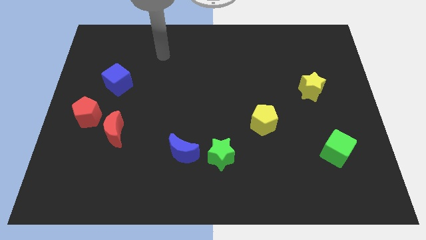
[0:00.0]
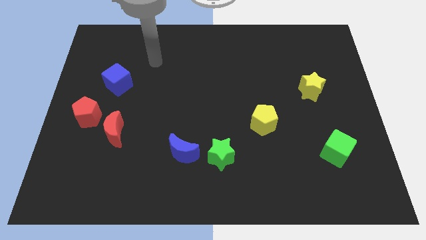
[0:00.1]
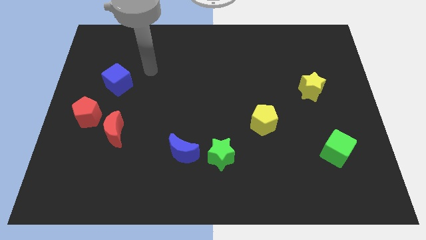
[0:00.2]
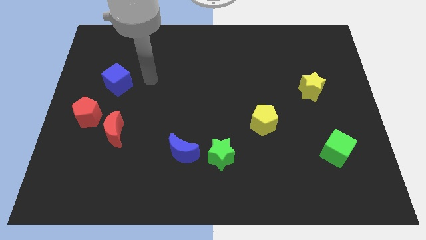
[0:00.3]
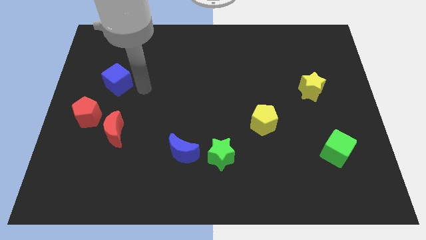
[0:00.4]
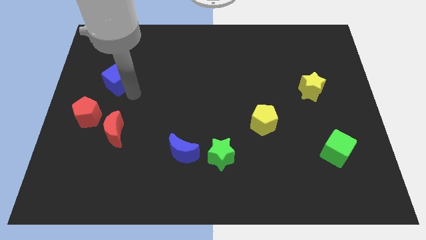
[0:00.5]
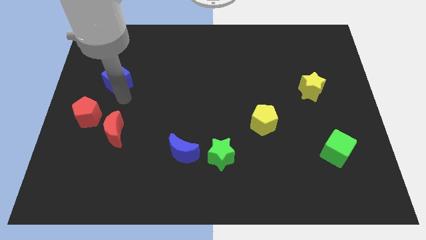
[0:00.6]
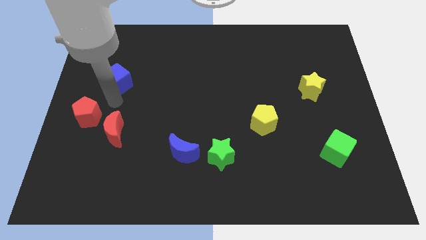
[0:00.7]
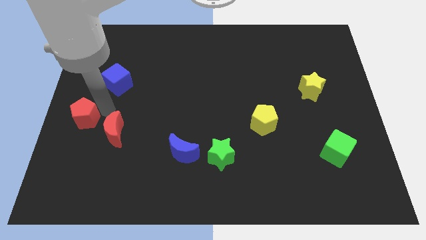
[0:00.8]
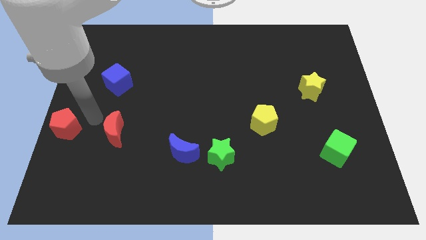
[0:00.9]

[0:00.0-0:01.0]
separate the red moon from the red pentagon

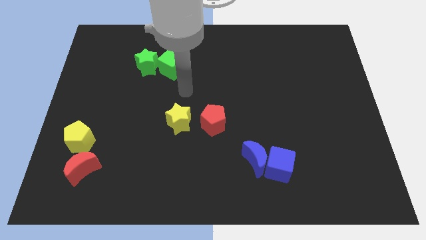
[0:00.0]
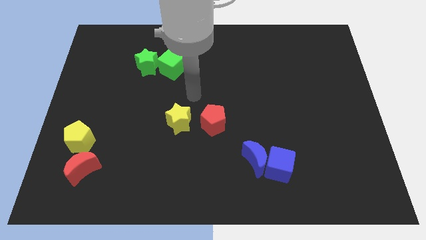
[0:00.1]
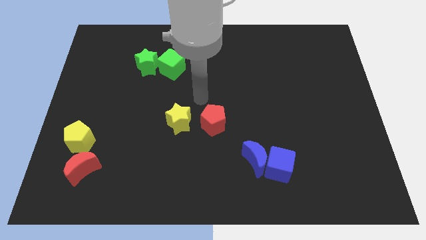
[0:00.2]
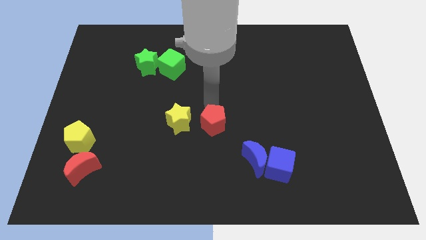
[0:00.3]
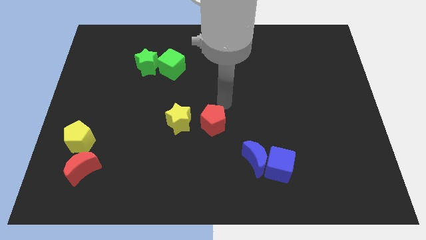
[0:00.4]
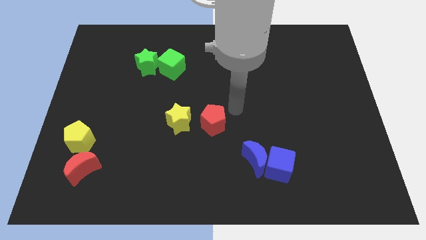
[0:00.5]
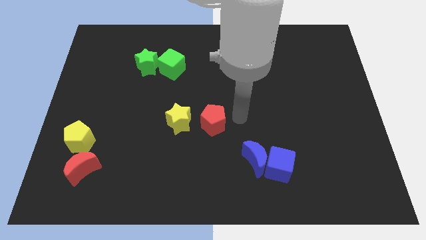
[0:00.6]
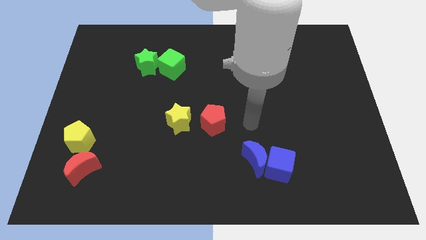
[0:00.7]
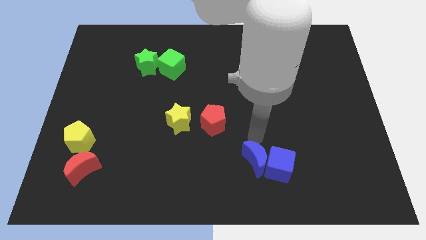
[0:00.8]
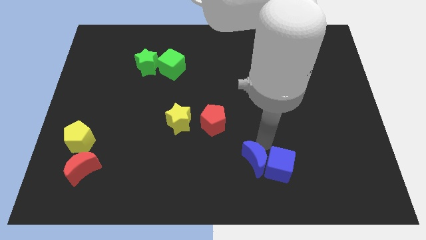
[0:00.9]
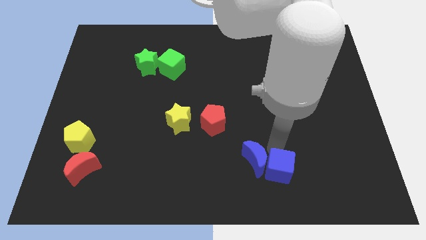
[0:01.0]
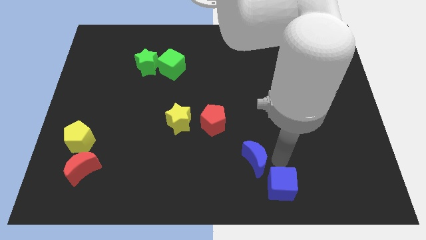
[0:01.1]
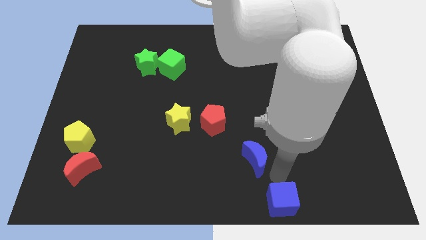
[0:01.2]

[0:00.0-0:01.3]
separate the blue moon from the blue cube

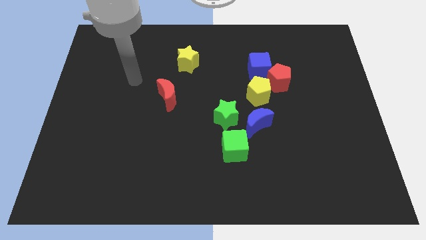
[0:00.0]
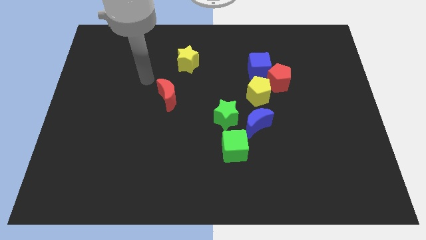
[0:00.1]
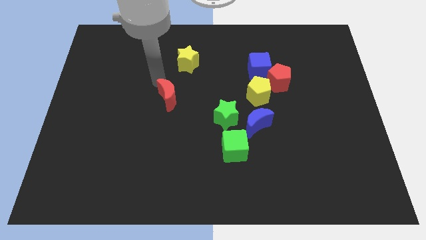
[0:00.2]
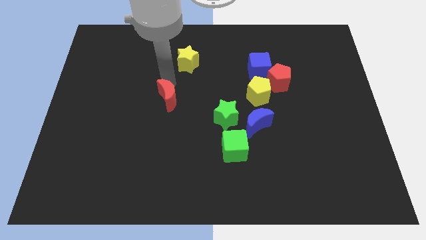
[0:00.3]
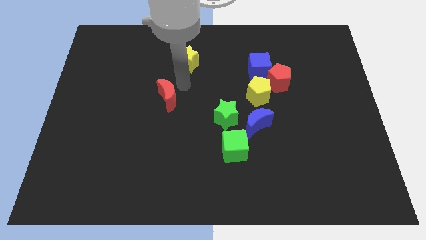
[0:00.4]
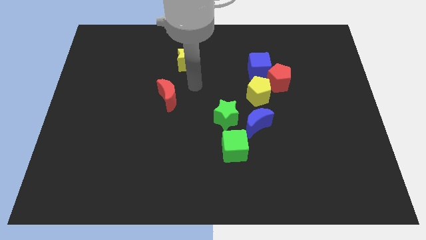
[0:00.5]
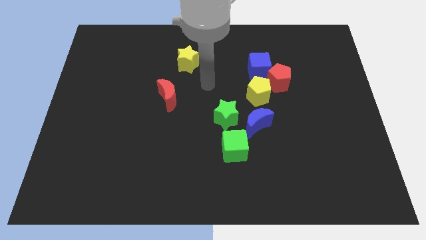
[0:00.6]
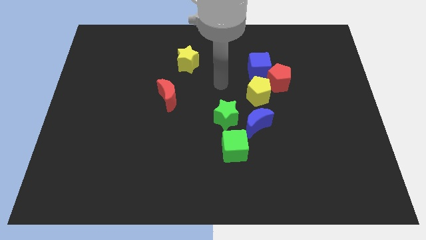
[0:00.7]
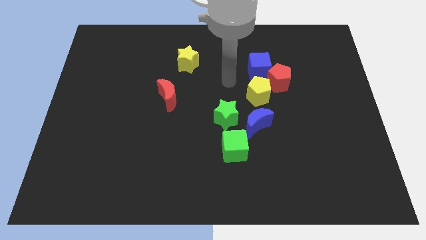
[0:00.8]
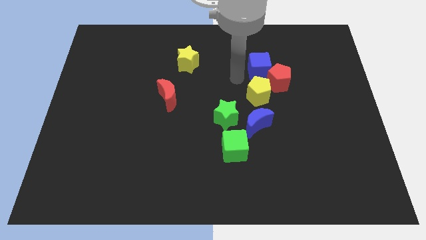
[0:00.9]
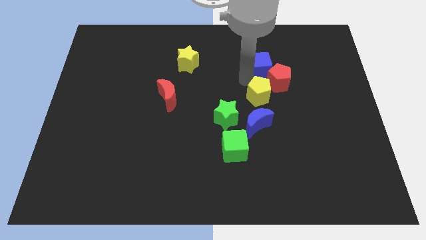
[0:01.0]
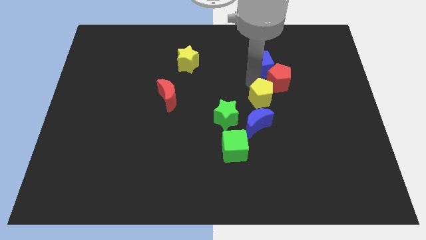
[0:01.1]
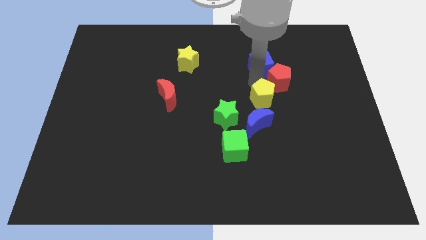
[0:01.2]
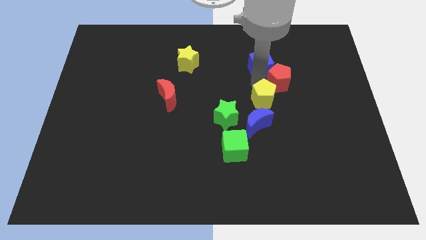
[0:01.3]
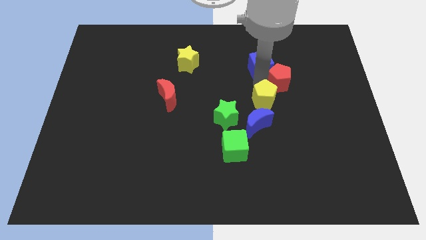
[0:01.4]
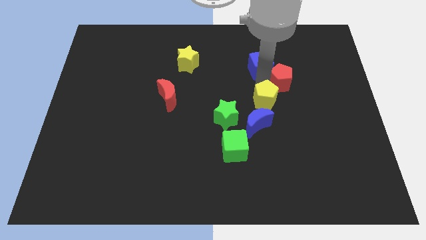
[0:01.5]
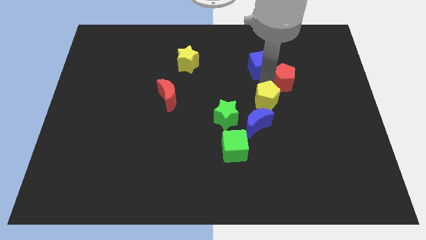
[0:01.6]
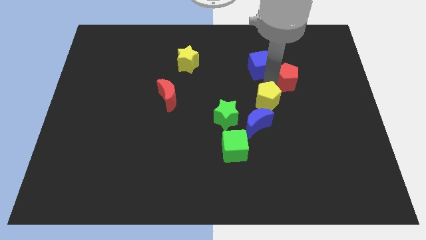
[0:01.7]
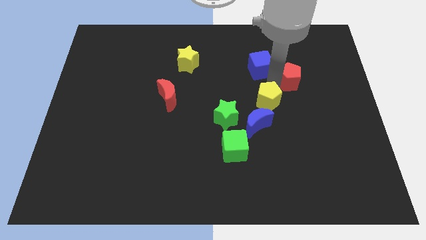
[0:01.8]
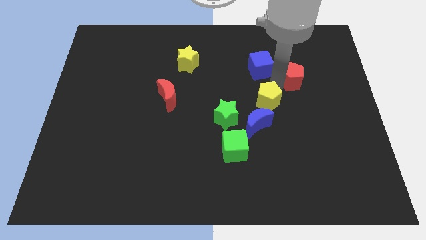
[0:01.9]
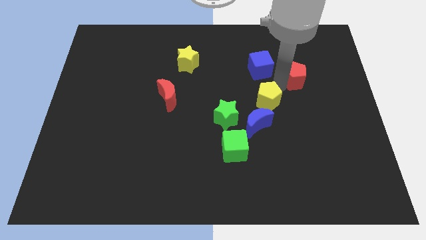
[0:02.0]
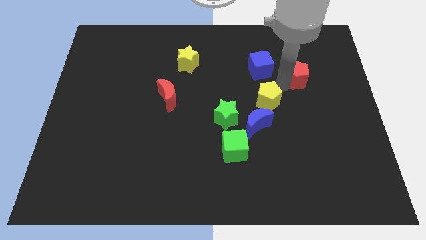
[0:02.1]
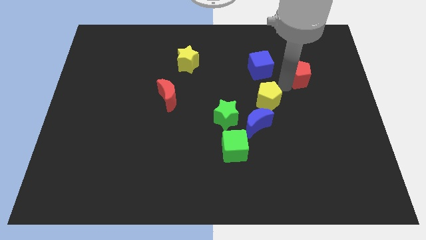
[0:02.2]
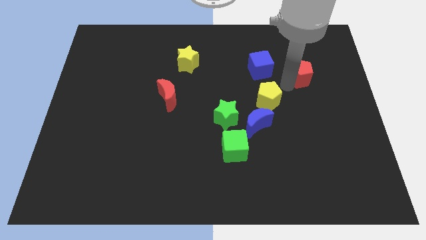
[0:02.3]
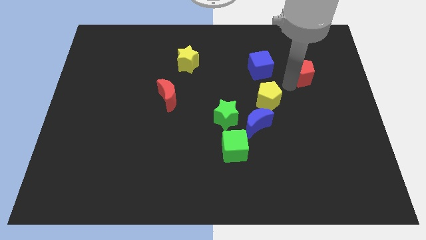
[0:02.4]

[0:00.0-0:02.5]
separate the red pentagon from the blue cube and yellow pentagon

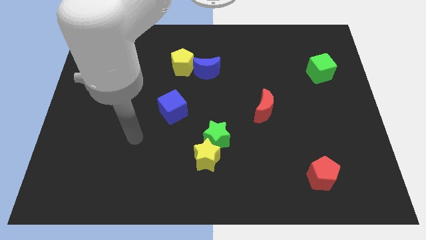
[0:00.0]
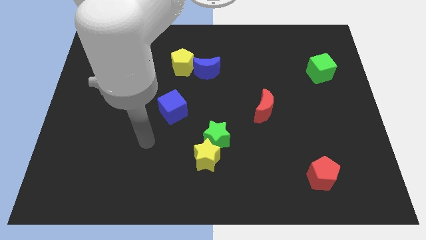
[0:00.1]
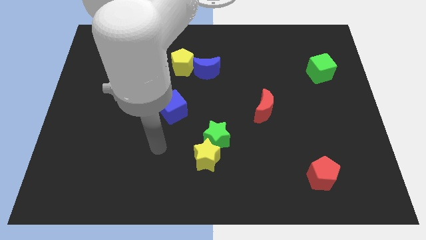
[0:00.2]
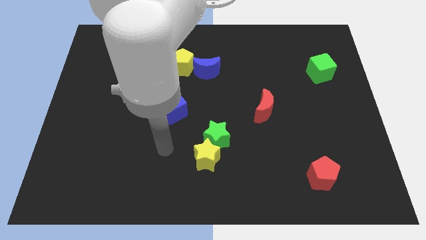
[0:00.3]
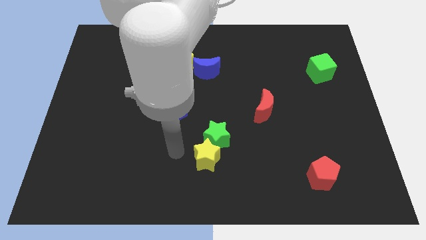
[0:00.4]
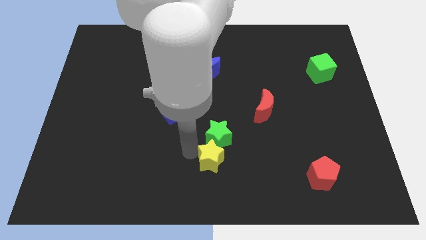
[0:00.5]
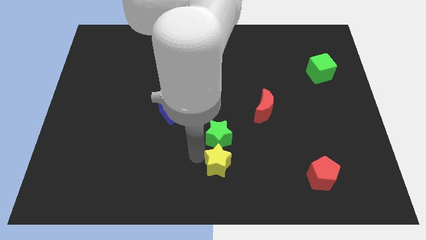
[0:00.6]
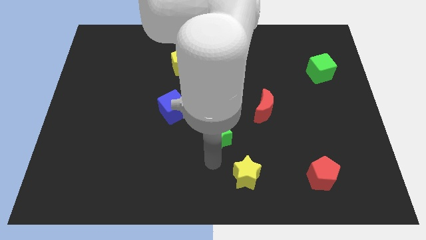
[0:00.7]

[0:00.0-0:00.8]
pull the green star apart from the yellow star

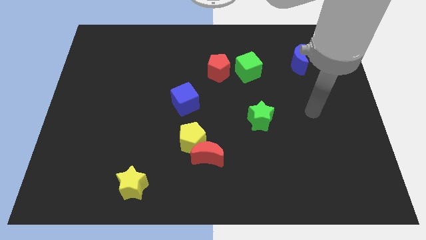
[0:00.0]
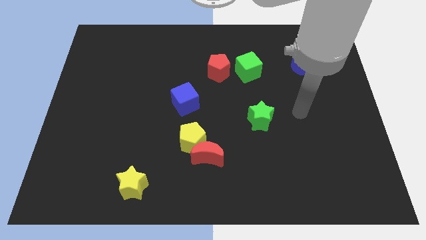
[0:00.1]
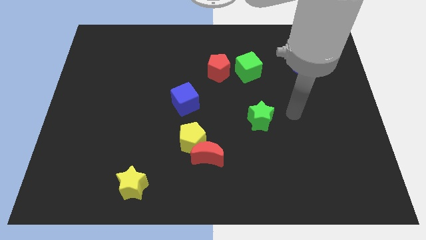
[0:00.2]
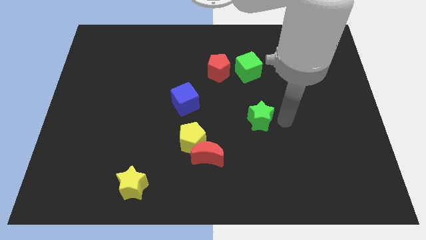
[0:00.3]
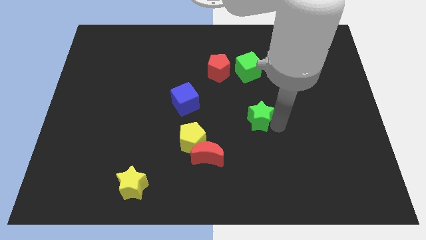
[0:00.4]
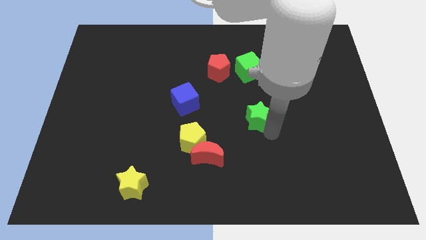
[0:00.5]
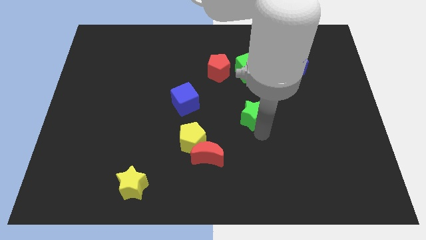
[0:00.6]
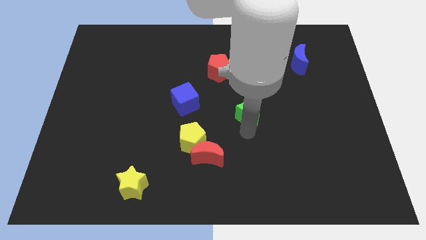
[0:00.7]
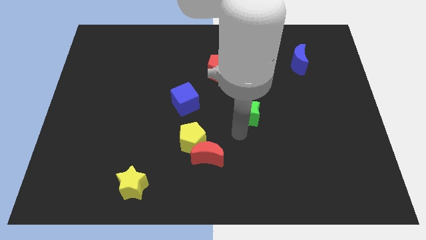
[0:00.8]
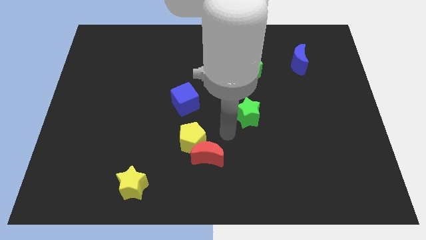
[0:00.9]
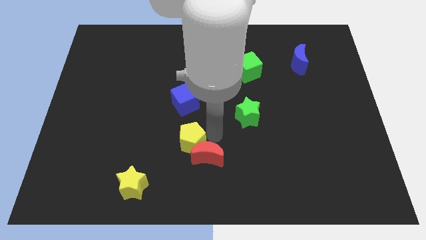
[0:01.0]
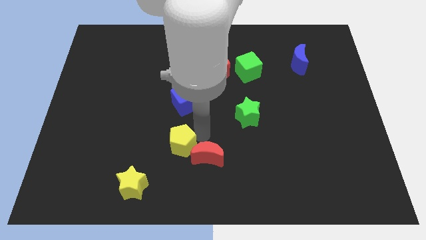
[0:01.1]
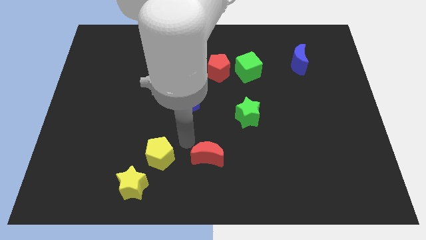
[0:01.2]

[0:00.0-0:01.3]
pull the red moon apart from the yellow pentagon

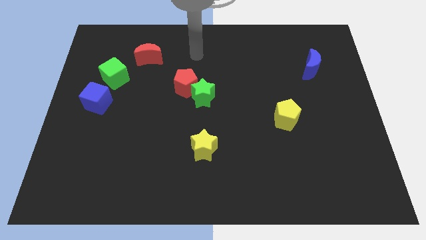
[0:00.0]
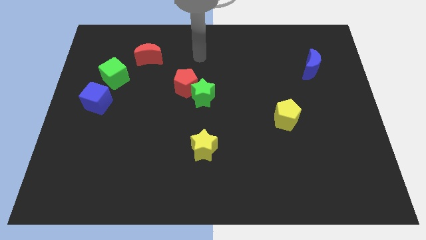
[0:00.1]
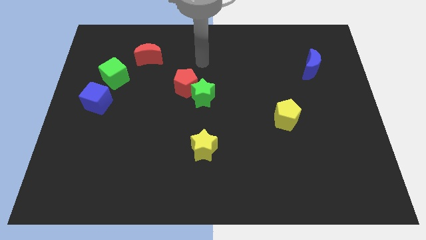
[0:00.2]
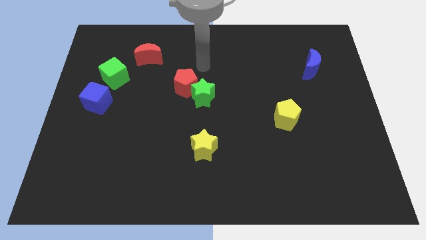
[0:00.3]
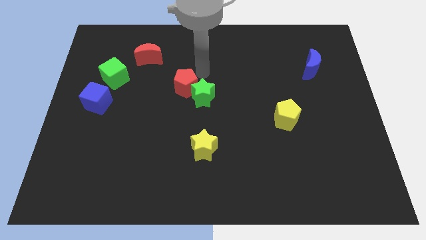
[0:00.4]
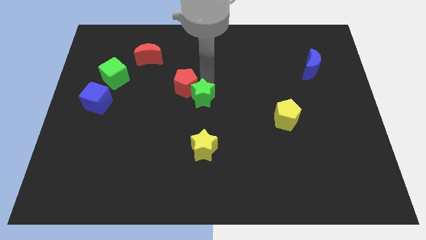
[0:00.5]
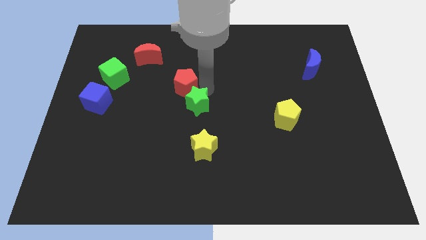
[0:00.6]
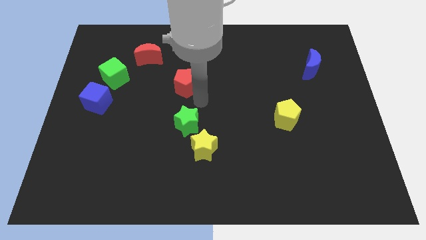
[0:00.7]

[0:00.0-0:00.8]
separate the red pentagon from the green star

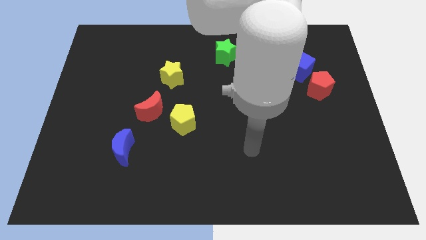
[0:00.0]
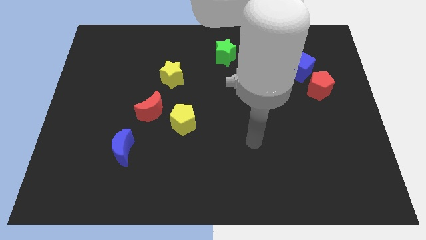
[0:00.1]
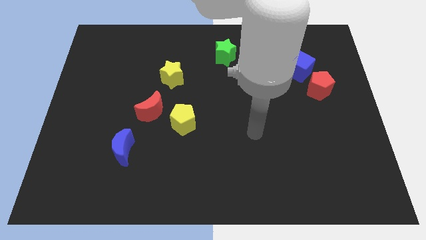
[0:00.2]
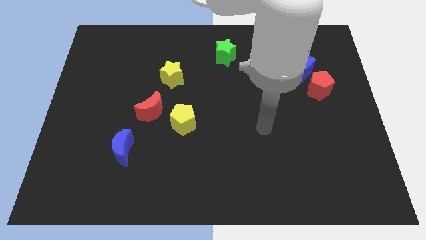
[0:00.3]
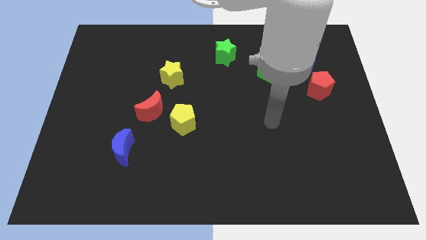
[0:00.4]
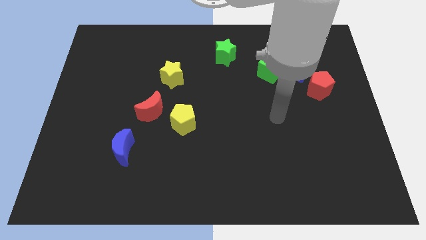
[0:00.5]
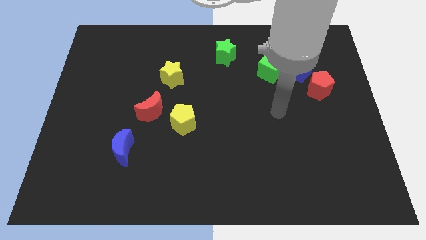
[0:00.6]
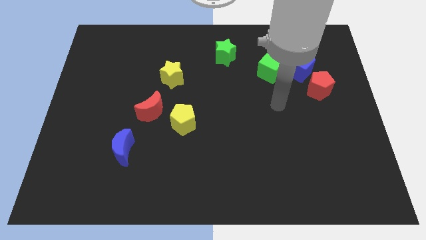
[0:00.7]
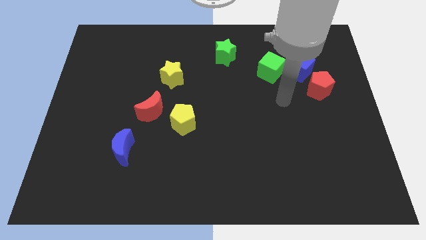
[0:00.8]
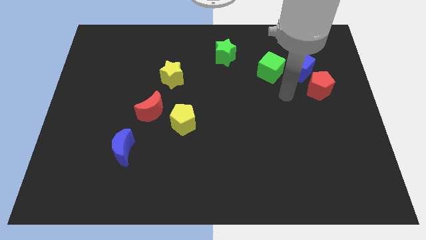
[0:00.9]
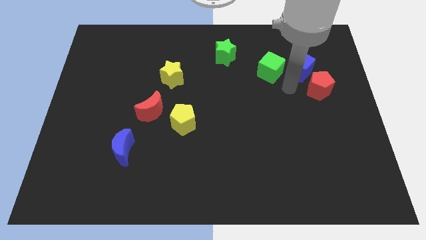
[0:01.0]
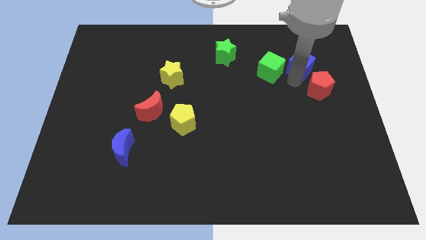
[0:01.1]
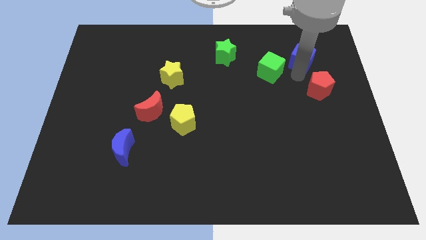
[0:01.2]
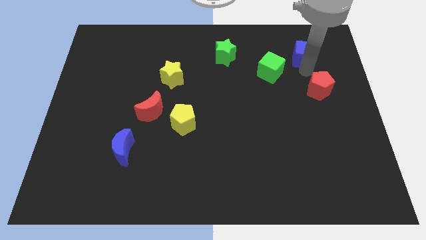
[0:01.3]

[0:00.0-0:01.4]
move the red pentagon away from the blue cube
